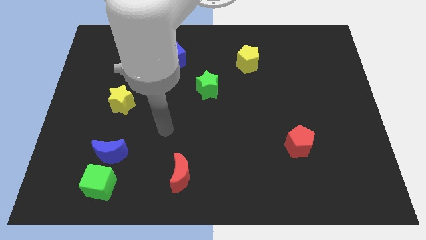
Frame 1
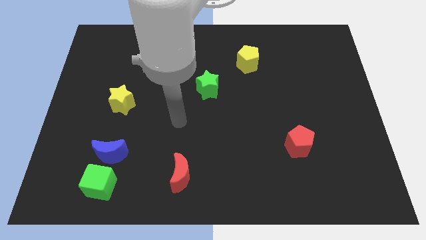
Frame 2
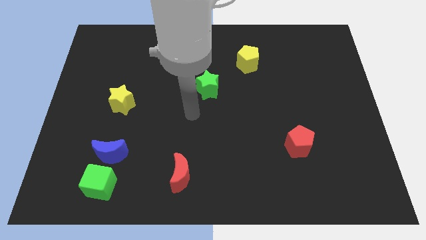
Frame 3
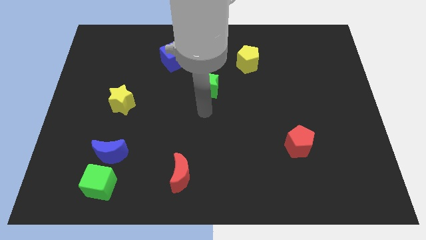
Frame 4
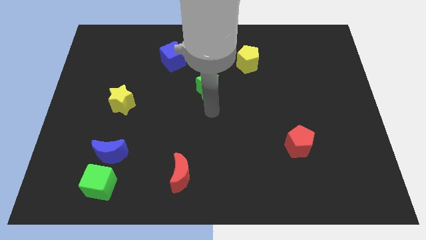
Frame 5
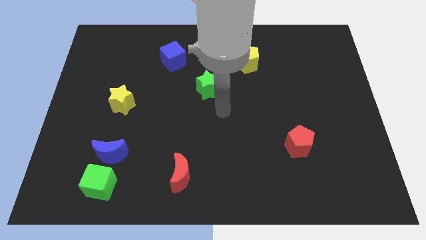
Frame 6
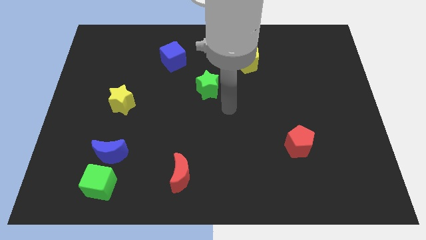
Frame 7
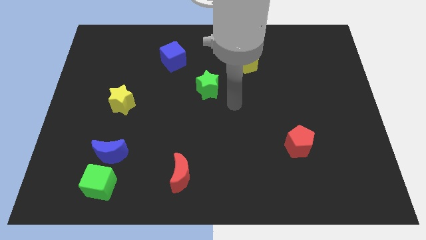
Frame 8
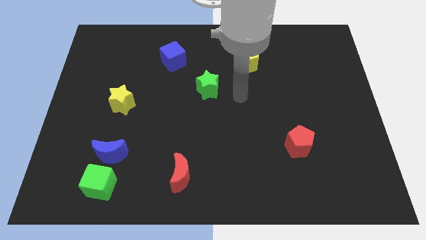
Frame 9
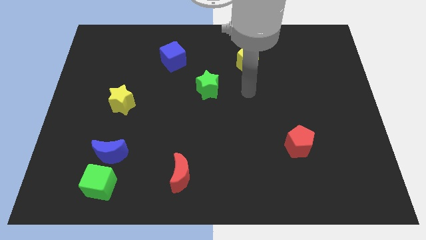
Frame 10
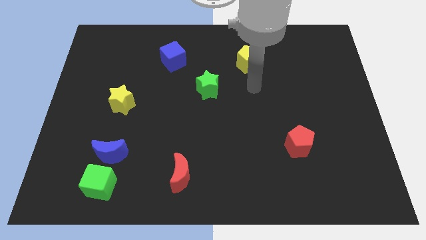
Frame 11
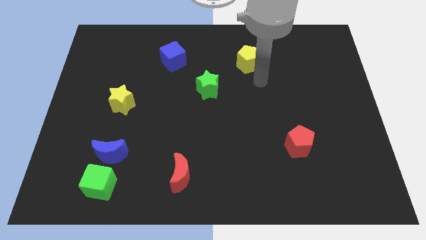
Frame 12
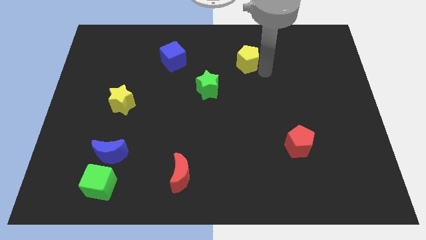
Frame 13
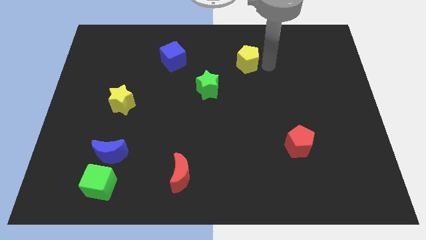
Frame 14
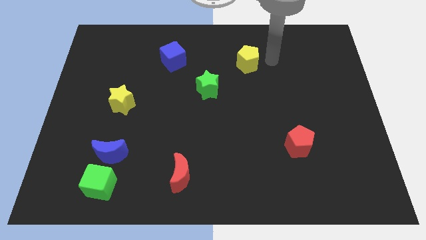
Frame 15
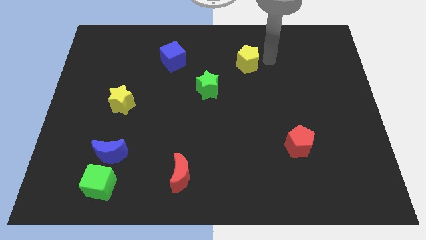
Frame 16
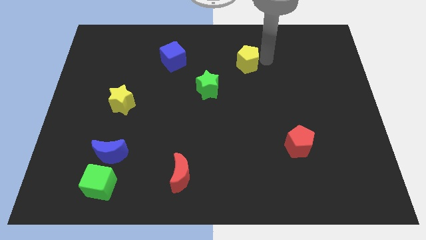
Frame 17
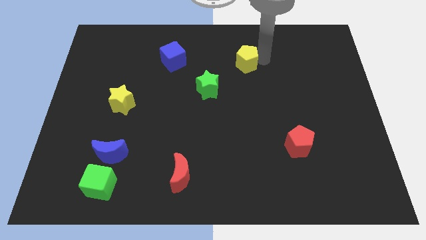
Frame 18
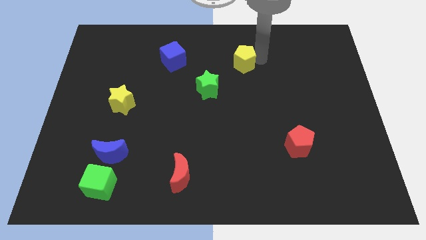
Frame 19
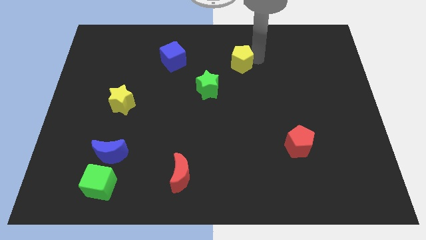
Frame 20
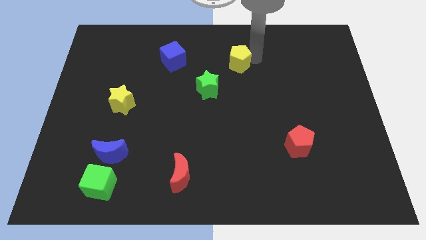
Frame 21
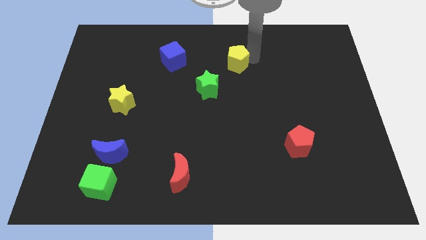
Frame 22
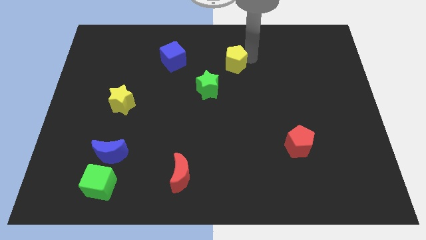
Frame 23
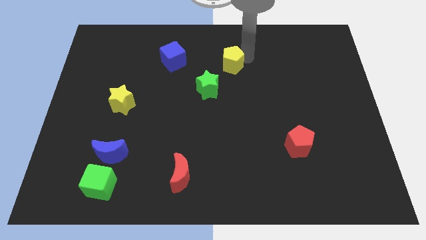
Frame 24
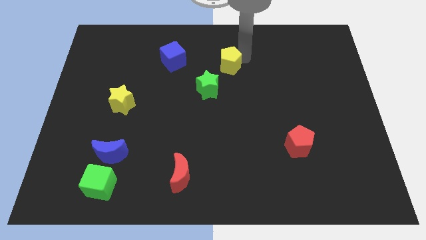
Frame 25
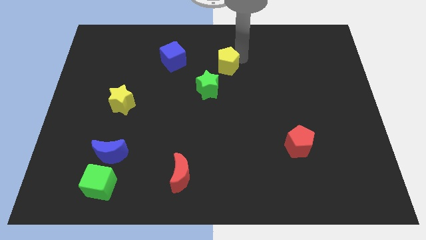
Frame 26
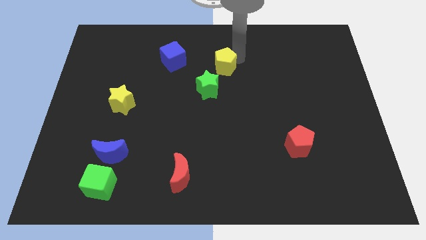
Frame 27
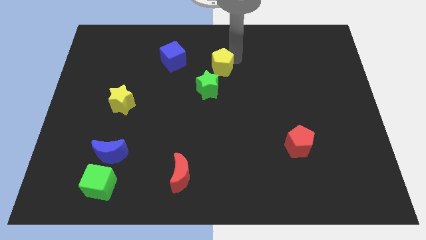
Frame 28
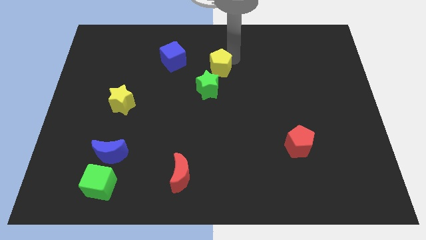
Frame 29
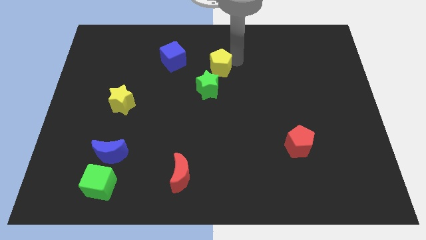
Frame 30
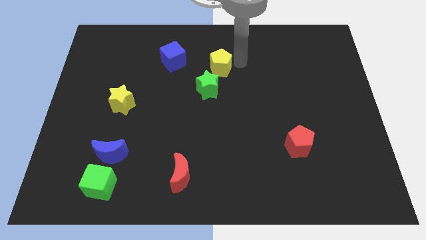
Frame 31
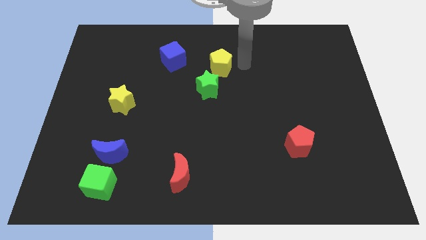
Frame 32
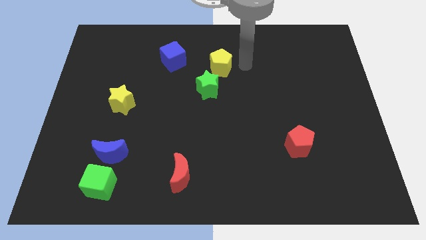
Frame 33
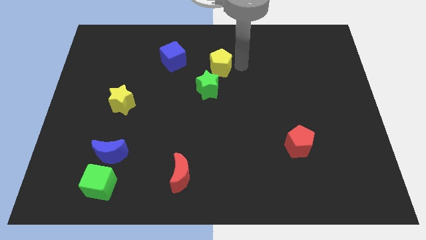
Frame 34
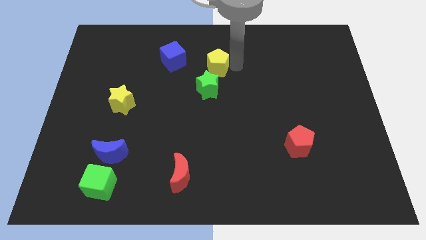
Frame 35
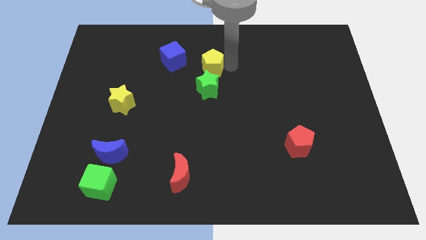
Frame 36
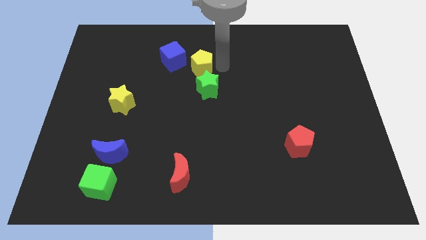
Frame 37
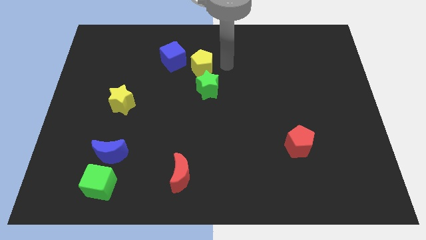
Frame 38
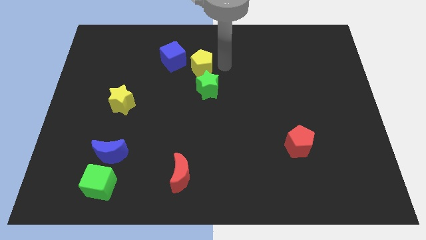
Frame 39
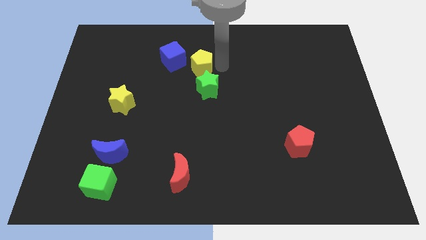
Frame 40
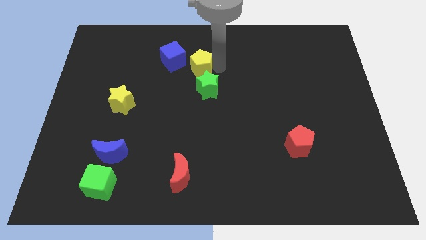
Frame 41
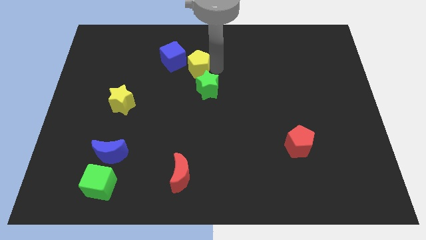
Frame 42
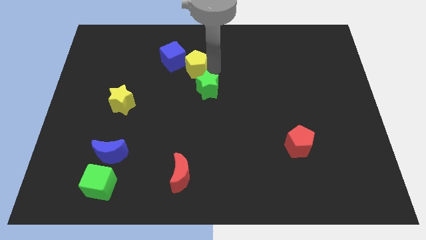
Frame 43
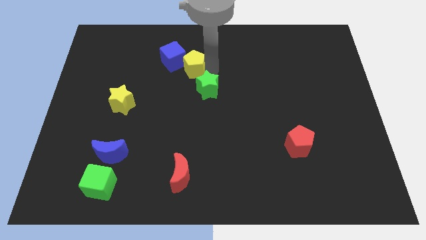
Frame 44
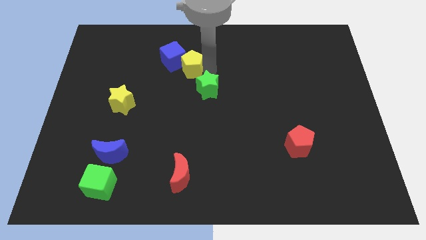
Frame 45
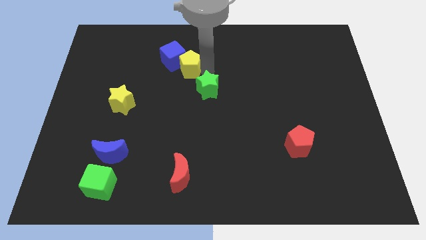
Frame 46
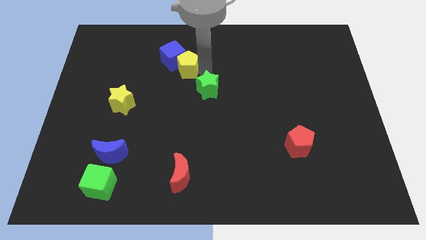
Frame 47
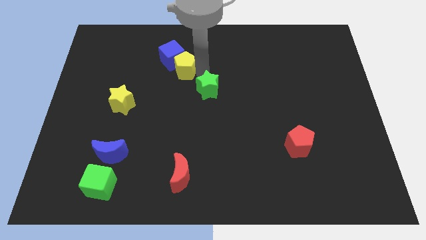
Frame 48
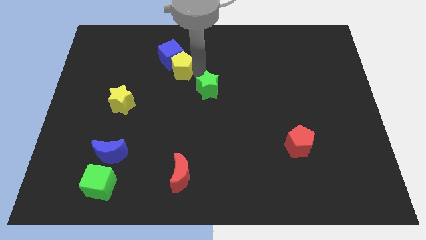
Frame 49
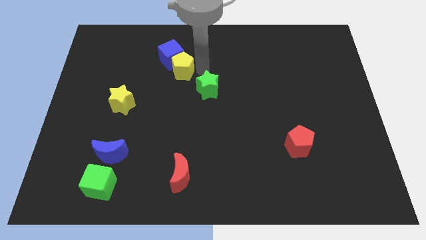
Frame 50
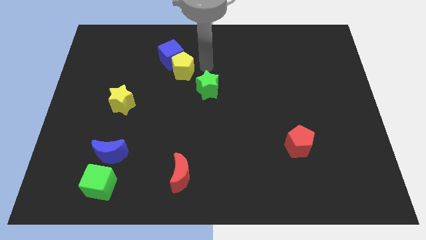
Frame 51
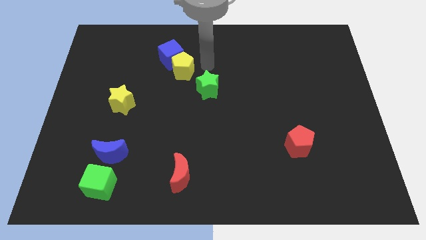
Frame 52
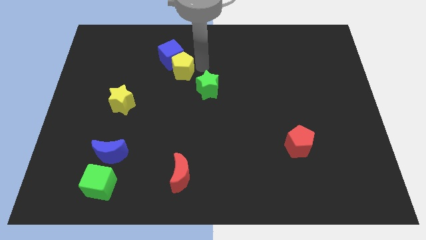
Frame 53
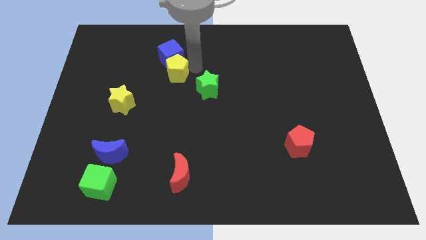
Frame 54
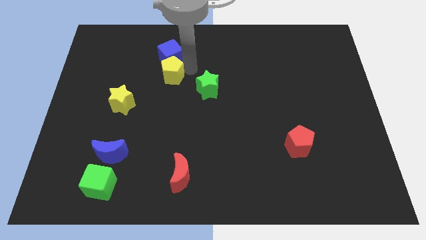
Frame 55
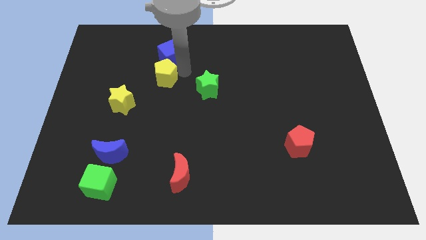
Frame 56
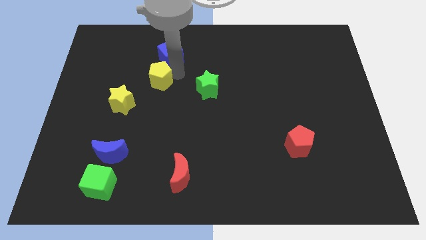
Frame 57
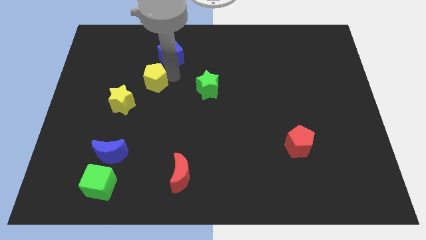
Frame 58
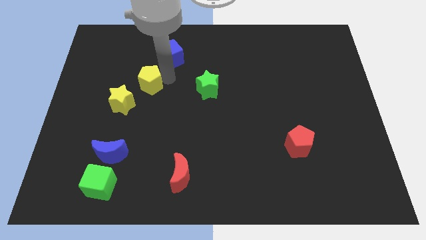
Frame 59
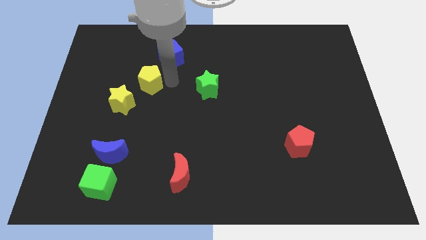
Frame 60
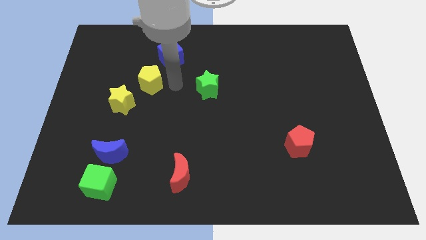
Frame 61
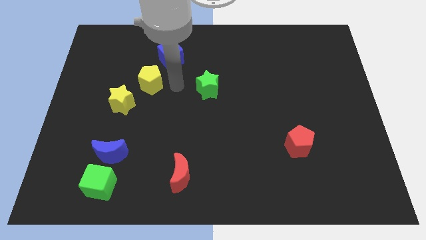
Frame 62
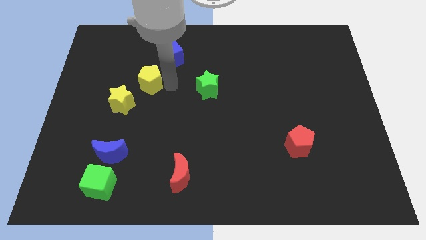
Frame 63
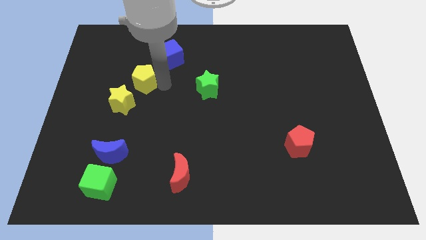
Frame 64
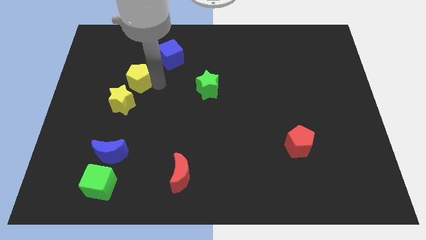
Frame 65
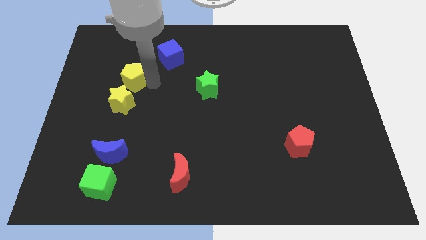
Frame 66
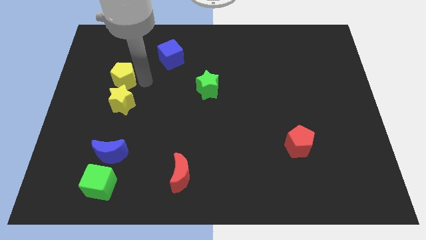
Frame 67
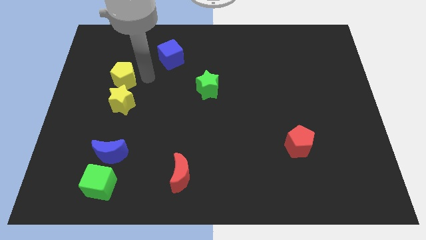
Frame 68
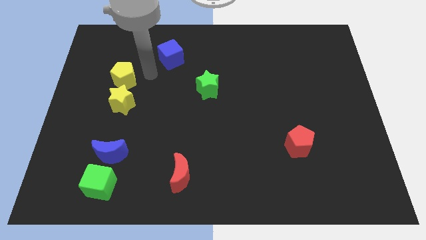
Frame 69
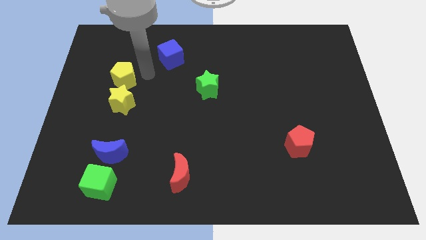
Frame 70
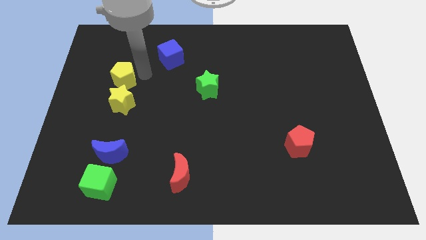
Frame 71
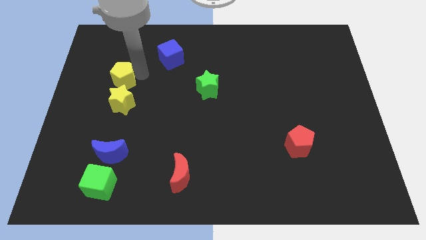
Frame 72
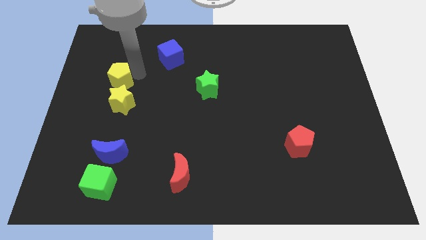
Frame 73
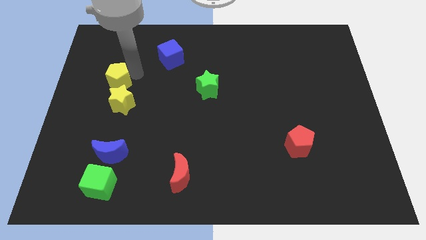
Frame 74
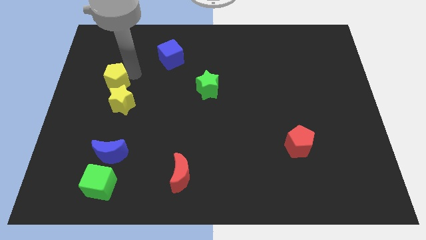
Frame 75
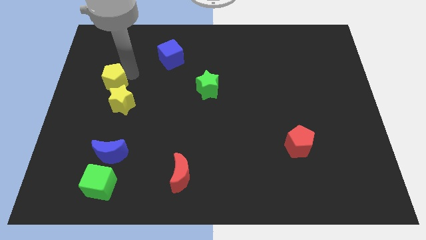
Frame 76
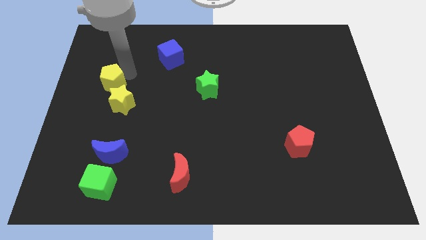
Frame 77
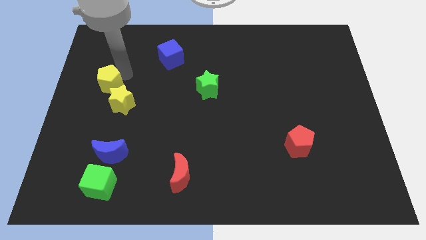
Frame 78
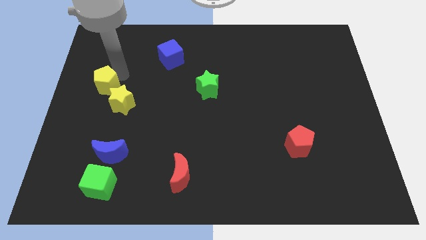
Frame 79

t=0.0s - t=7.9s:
put the yellow pentagon to the left side
